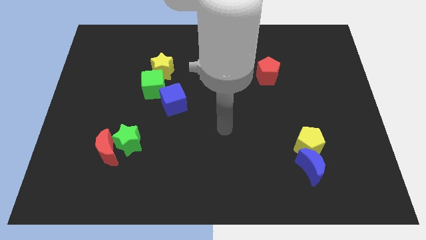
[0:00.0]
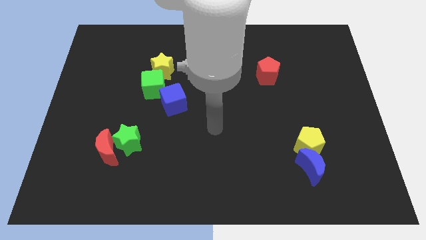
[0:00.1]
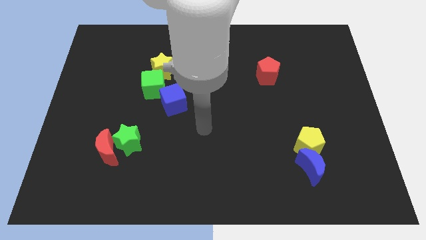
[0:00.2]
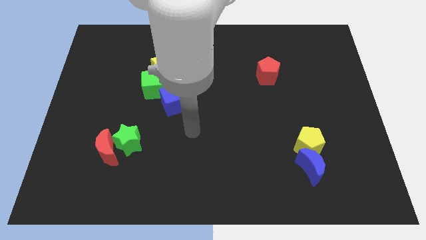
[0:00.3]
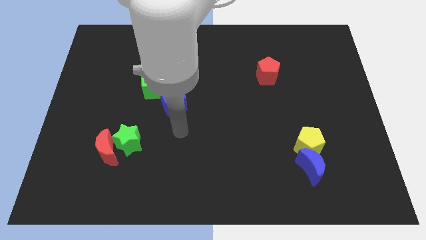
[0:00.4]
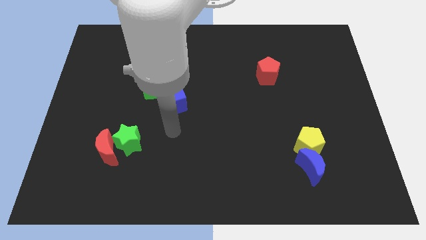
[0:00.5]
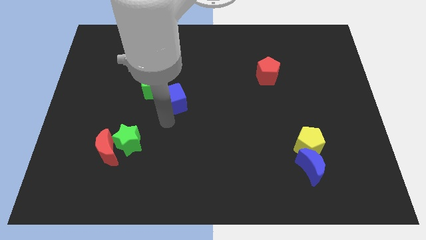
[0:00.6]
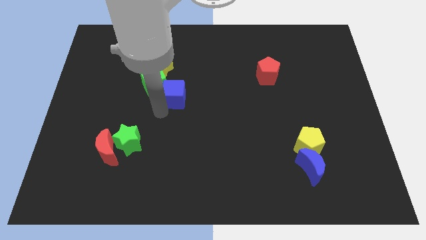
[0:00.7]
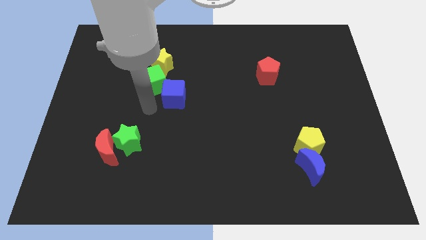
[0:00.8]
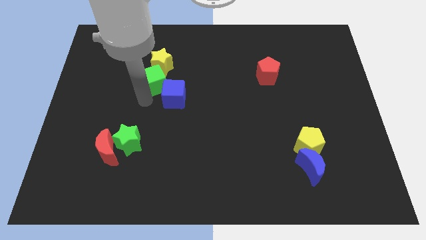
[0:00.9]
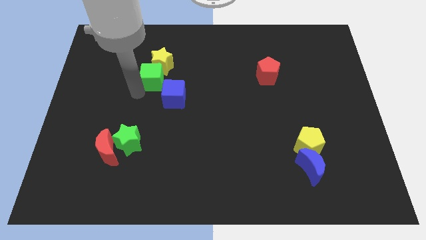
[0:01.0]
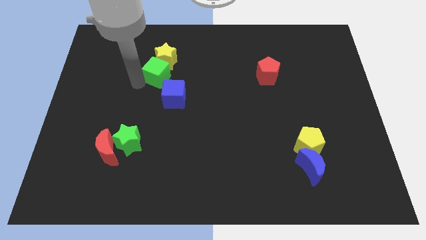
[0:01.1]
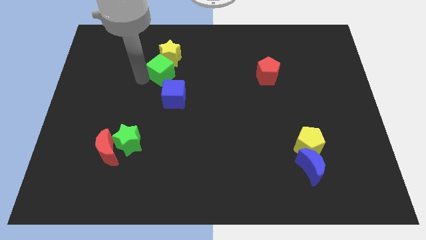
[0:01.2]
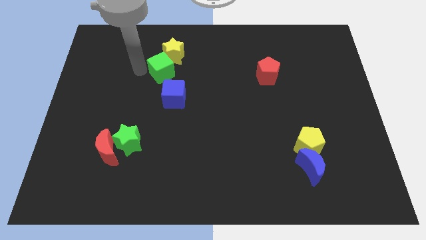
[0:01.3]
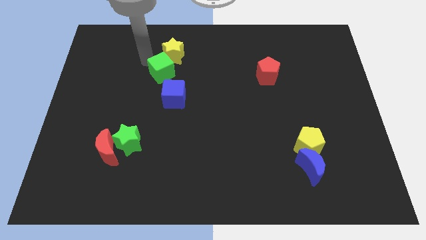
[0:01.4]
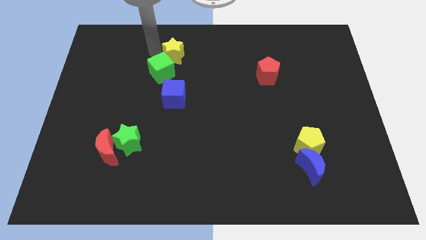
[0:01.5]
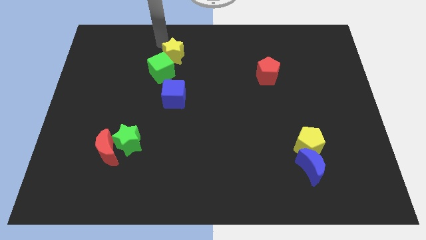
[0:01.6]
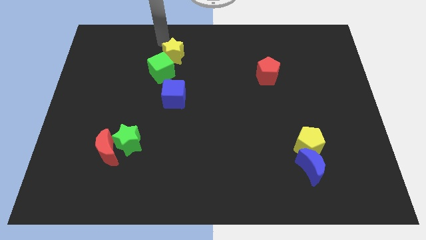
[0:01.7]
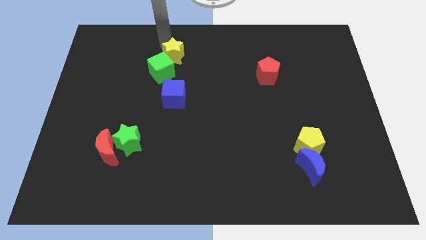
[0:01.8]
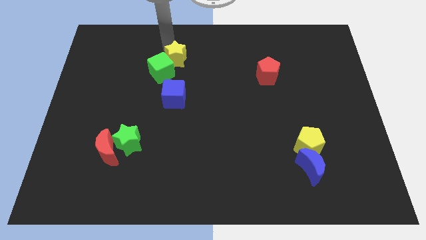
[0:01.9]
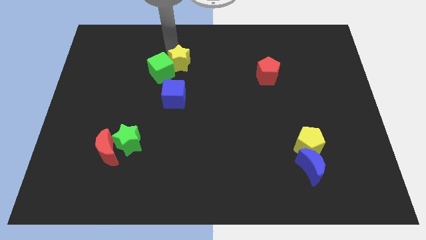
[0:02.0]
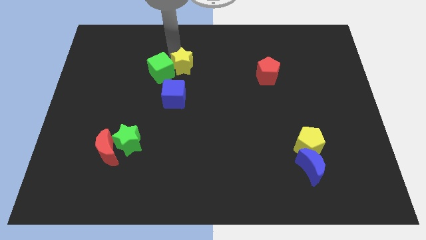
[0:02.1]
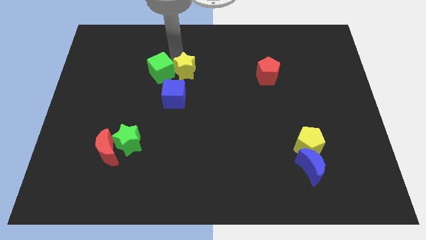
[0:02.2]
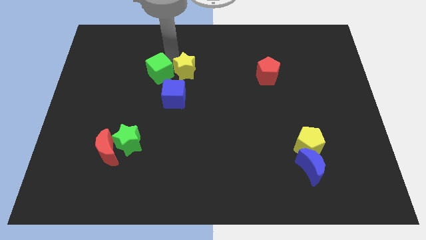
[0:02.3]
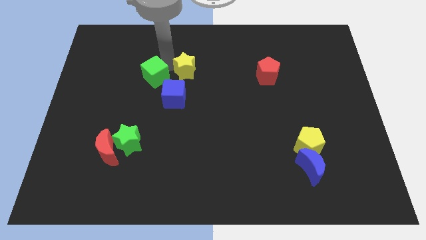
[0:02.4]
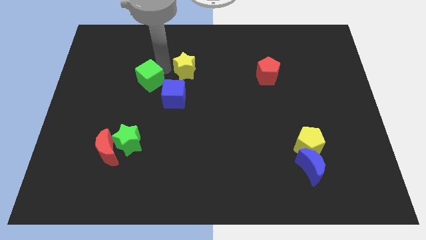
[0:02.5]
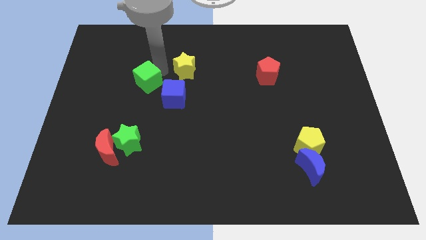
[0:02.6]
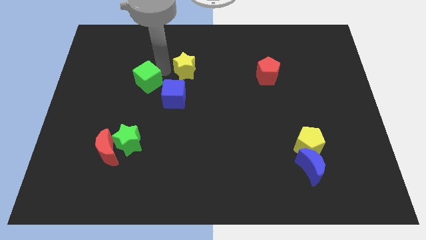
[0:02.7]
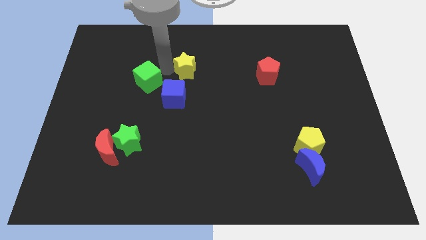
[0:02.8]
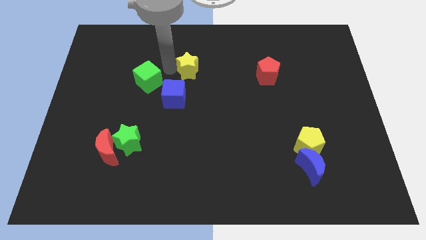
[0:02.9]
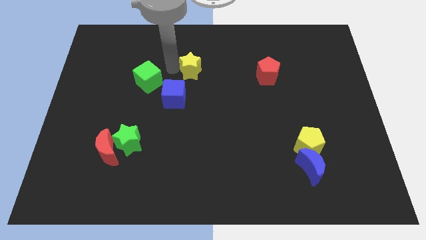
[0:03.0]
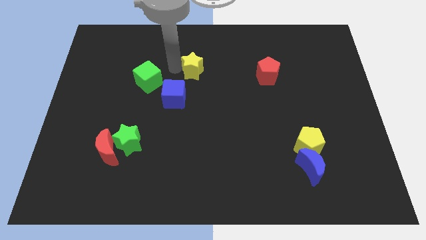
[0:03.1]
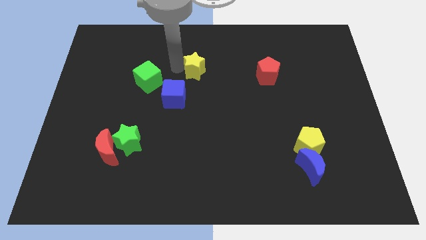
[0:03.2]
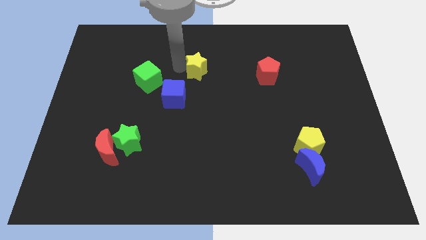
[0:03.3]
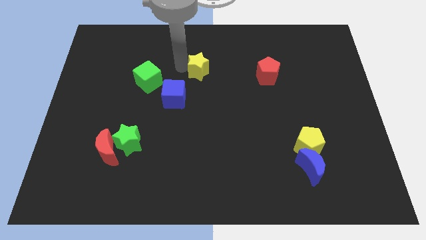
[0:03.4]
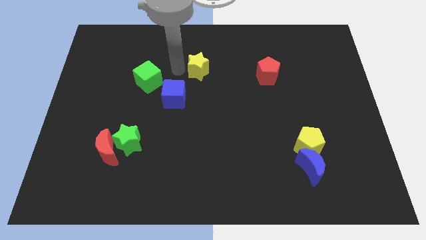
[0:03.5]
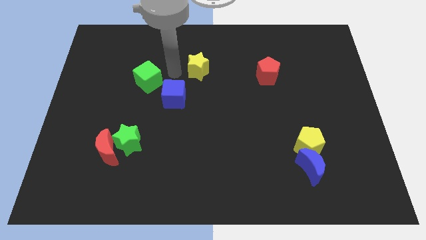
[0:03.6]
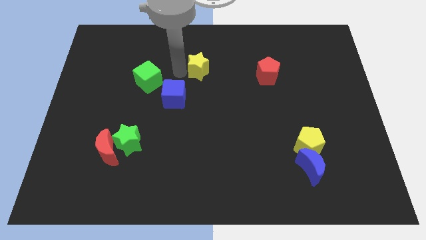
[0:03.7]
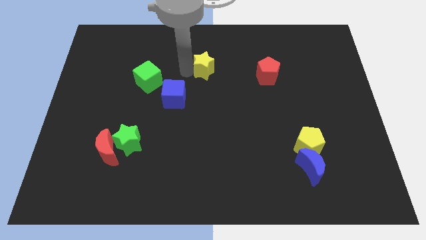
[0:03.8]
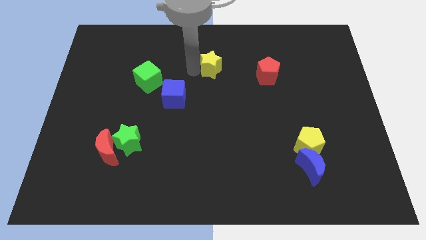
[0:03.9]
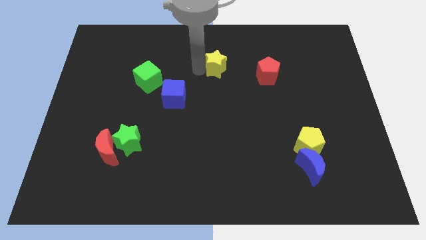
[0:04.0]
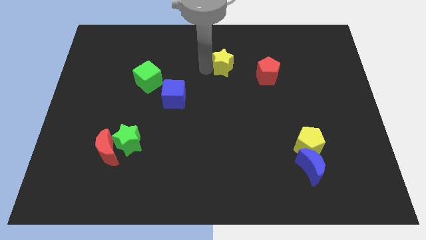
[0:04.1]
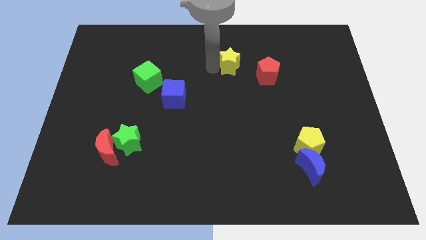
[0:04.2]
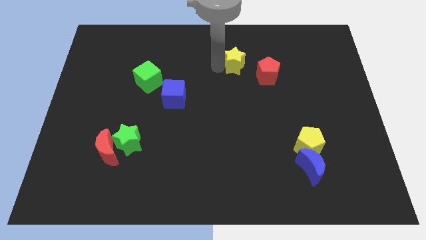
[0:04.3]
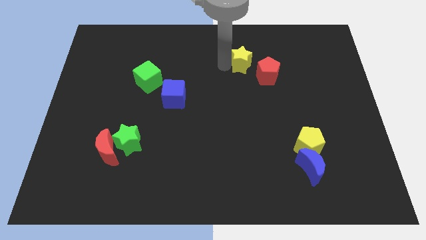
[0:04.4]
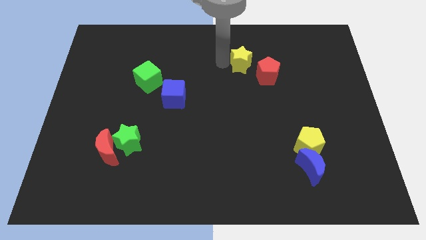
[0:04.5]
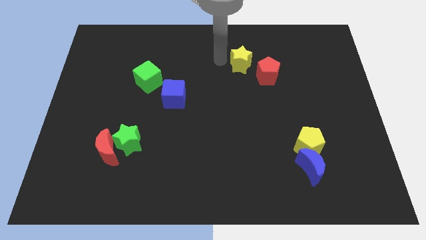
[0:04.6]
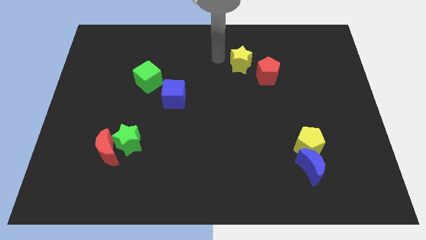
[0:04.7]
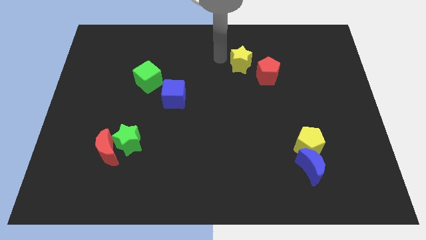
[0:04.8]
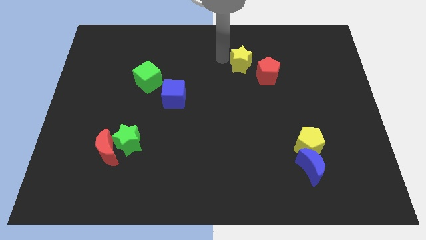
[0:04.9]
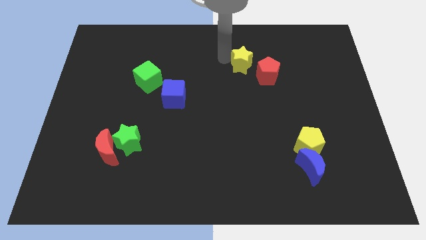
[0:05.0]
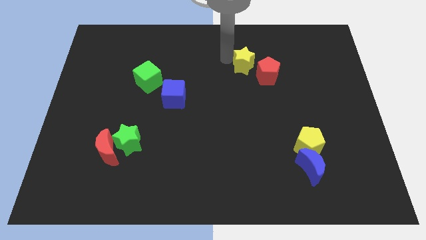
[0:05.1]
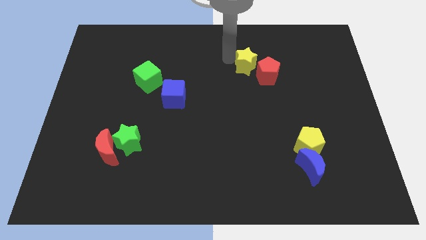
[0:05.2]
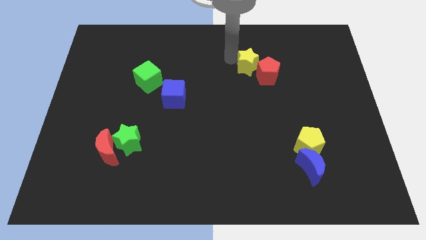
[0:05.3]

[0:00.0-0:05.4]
slide the yellow star to the red pentagon

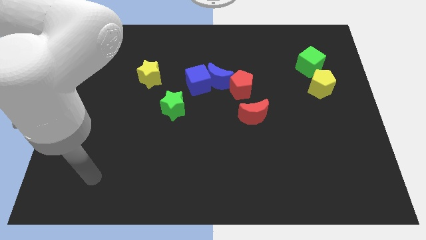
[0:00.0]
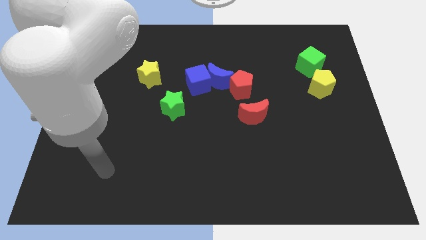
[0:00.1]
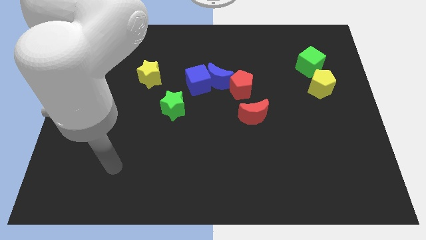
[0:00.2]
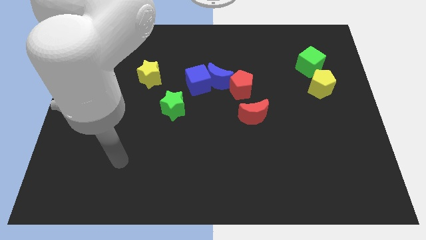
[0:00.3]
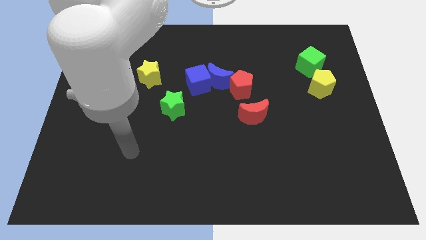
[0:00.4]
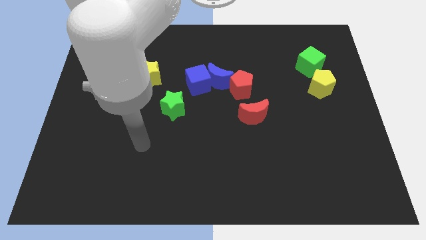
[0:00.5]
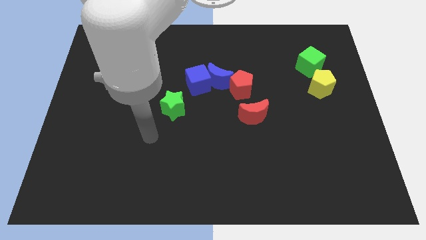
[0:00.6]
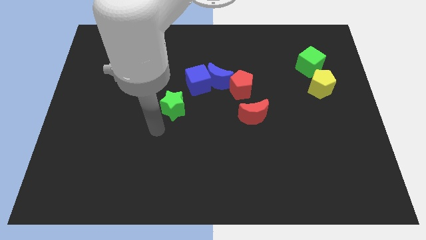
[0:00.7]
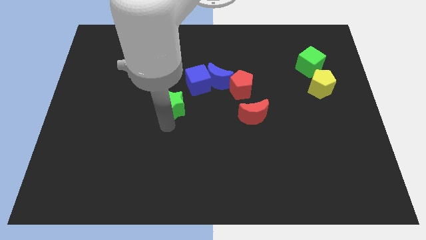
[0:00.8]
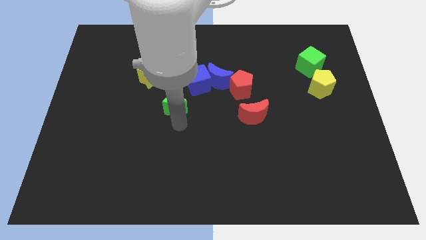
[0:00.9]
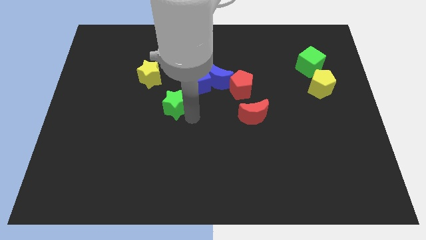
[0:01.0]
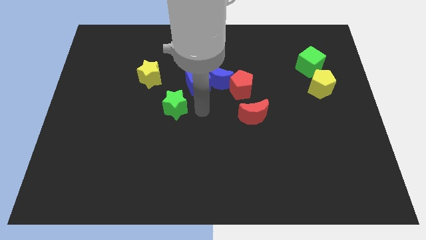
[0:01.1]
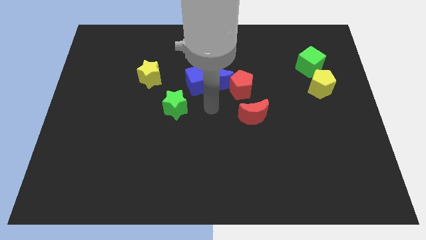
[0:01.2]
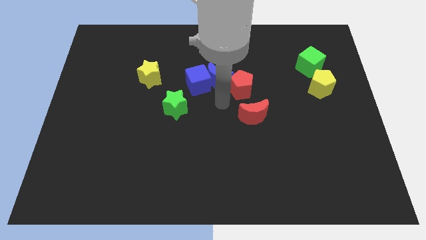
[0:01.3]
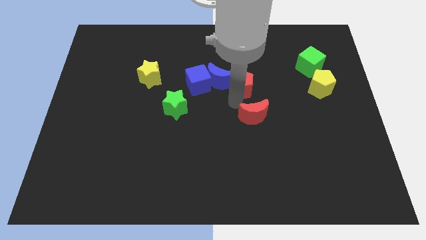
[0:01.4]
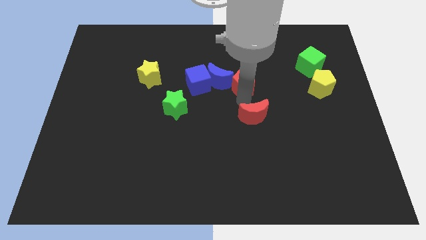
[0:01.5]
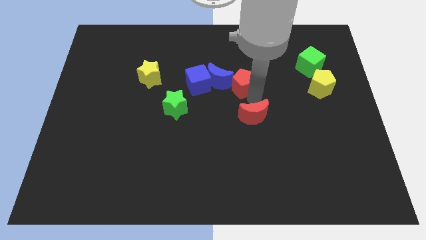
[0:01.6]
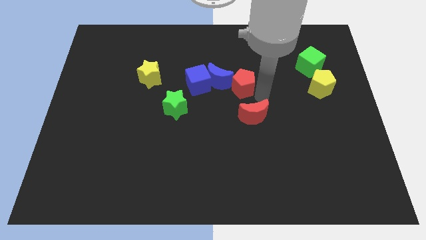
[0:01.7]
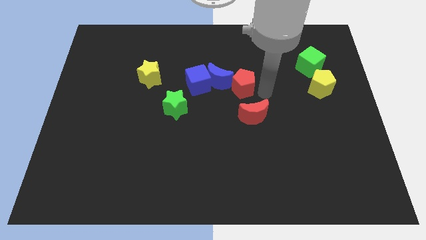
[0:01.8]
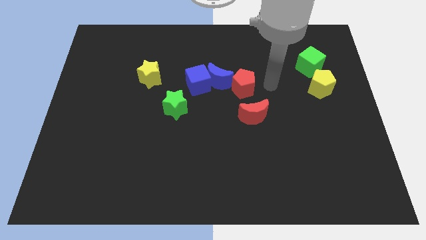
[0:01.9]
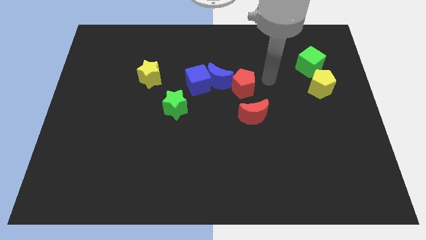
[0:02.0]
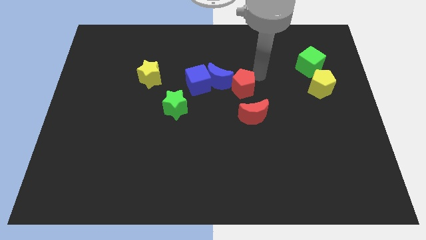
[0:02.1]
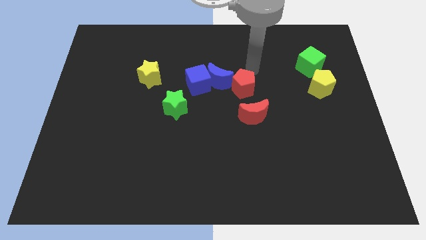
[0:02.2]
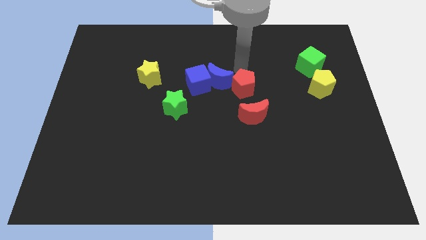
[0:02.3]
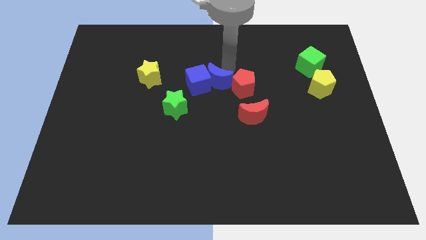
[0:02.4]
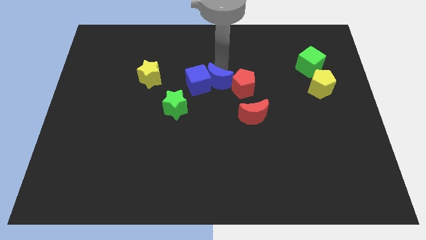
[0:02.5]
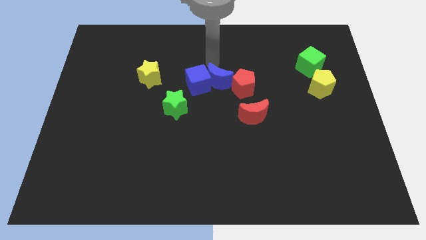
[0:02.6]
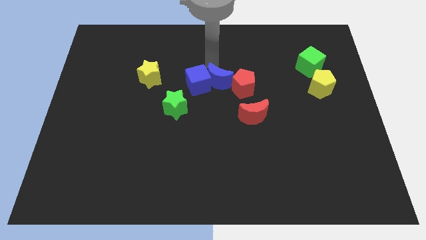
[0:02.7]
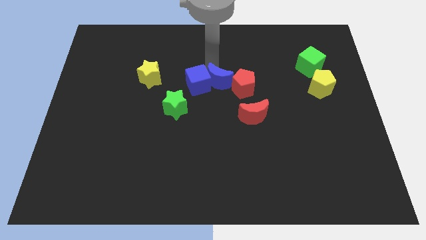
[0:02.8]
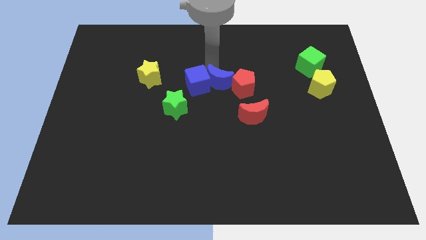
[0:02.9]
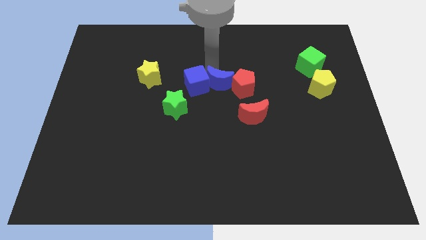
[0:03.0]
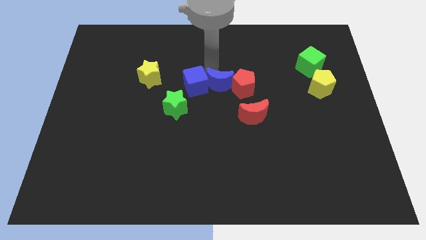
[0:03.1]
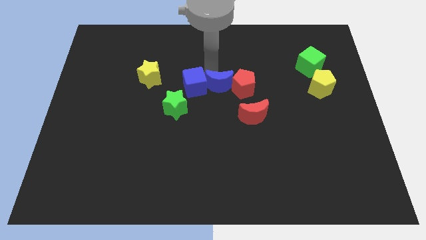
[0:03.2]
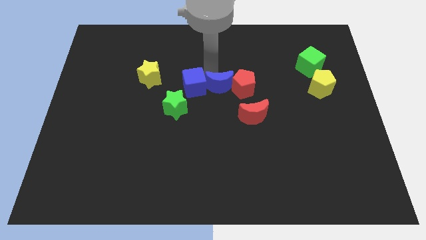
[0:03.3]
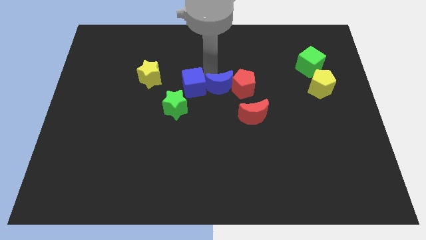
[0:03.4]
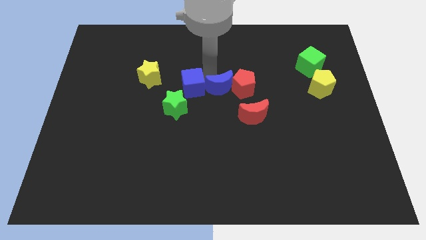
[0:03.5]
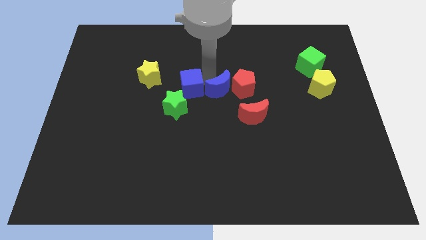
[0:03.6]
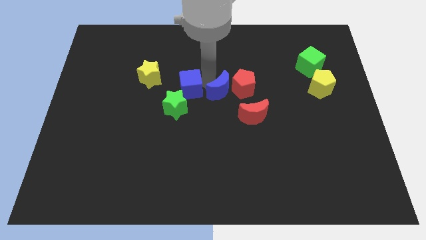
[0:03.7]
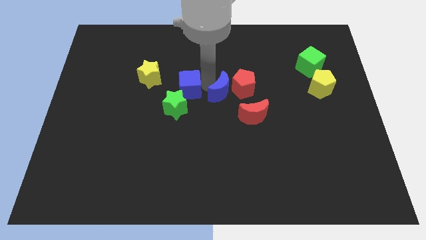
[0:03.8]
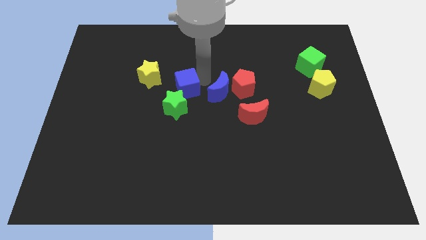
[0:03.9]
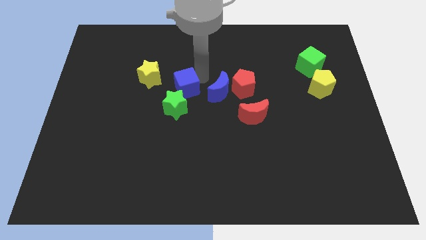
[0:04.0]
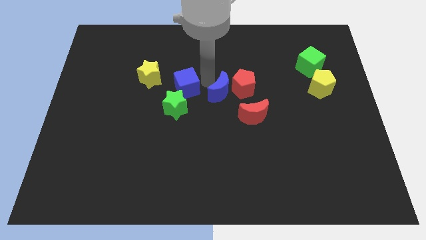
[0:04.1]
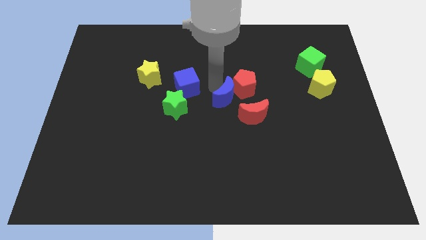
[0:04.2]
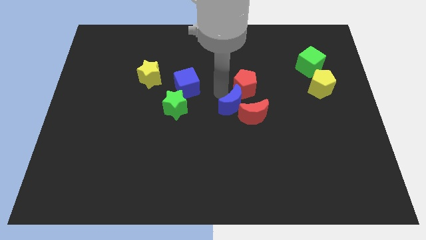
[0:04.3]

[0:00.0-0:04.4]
slide the blue moon next to the red moon
